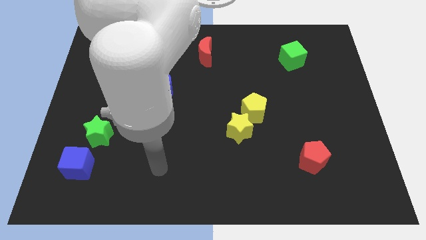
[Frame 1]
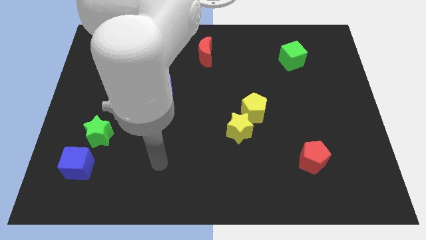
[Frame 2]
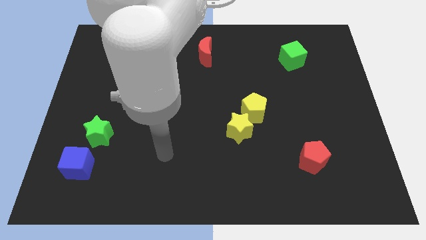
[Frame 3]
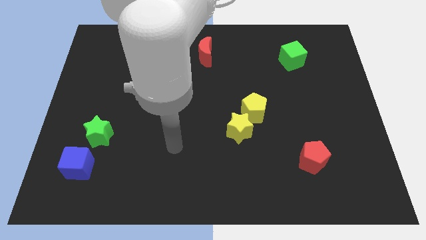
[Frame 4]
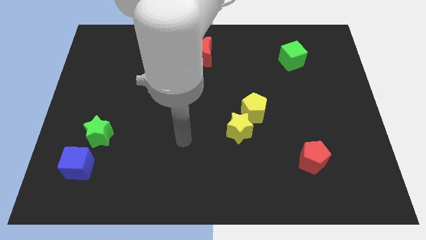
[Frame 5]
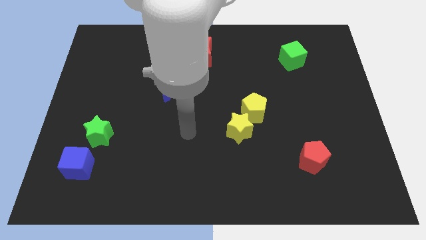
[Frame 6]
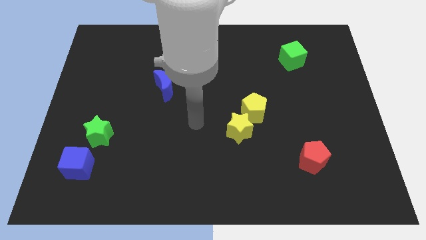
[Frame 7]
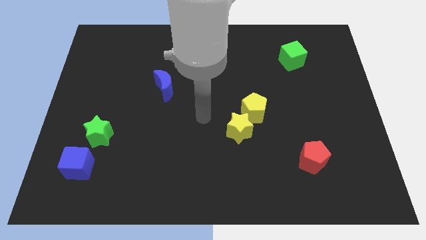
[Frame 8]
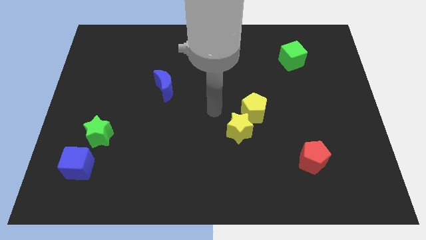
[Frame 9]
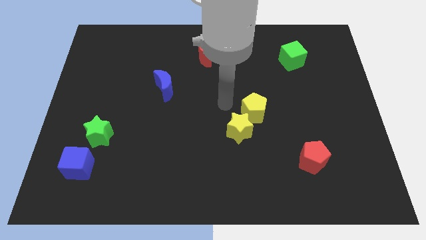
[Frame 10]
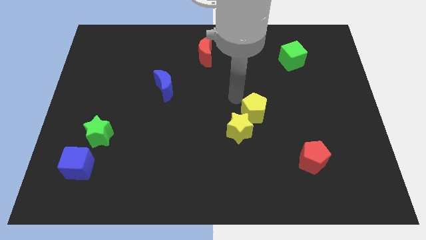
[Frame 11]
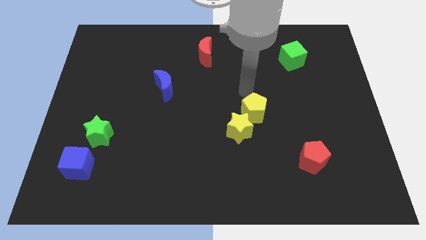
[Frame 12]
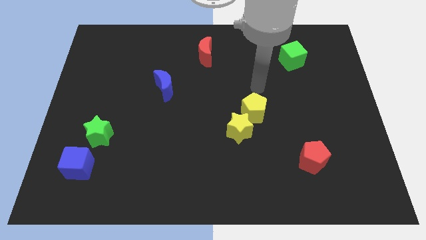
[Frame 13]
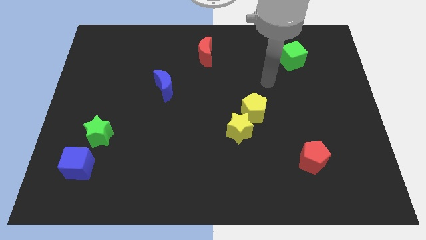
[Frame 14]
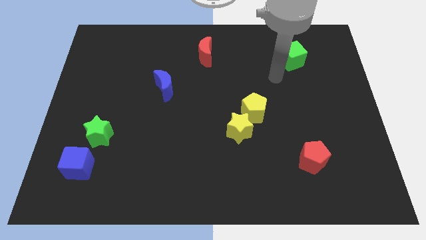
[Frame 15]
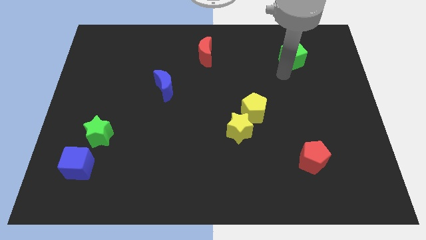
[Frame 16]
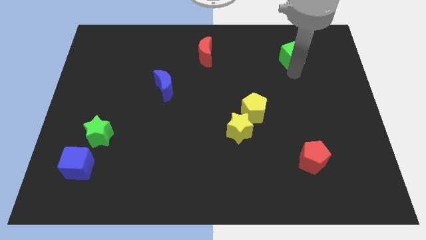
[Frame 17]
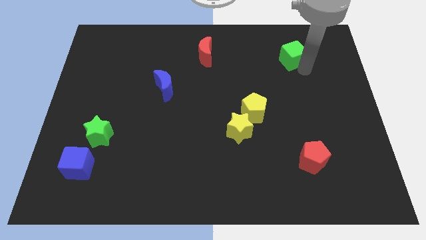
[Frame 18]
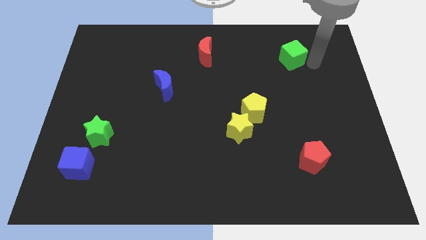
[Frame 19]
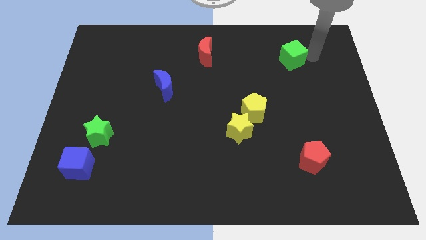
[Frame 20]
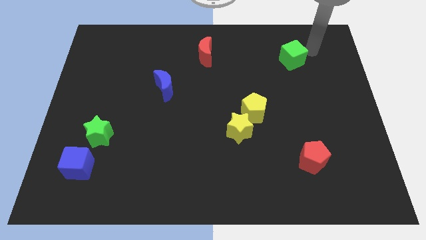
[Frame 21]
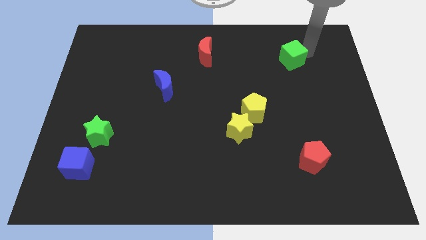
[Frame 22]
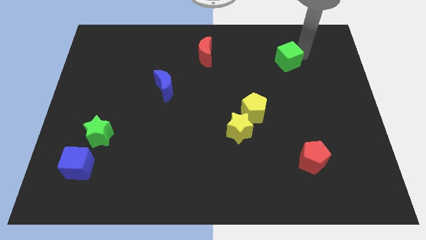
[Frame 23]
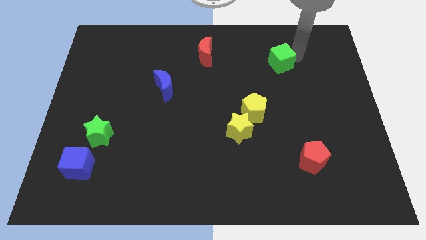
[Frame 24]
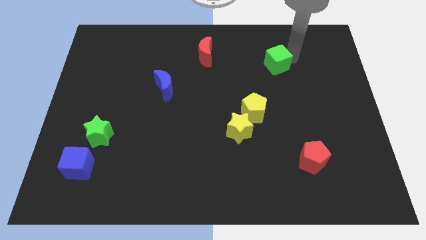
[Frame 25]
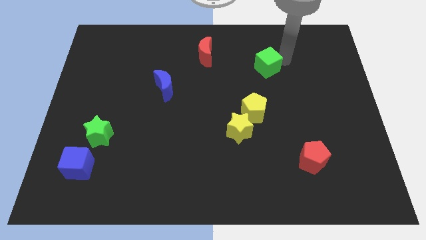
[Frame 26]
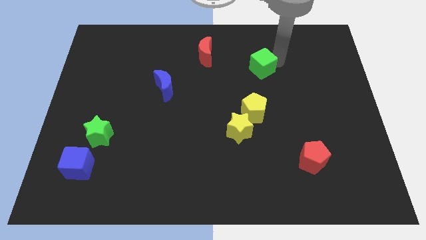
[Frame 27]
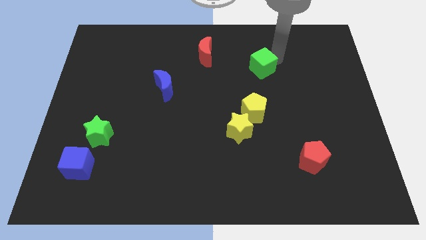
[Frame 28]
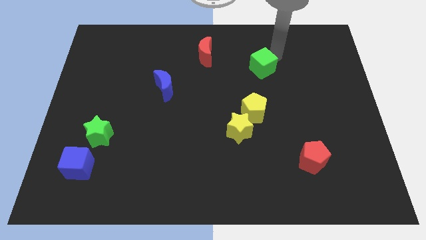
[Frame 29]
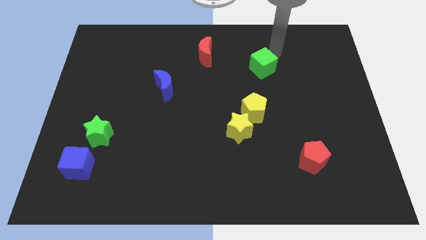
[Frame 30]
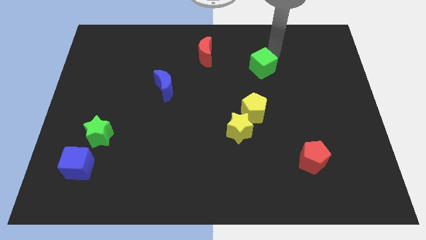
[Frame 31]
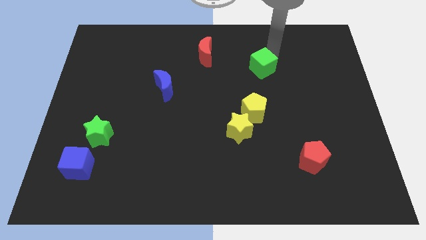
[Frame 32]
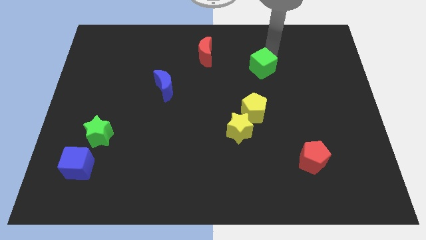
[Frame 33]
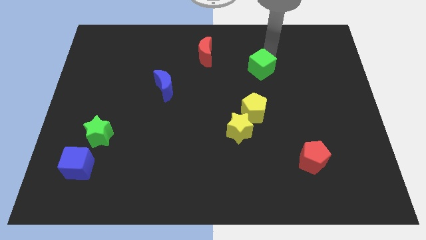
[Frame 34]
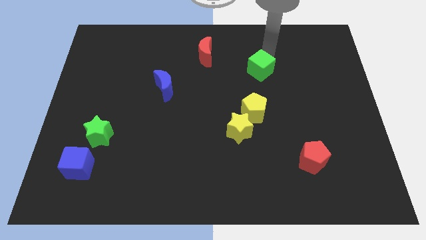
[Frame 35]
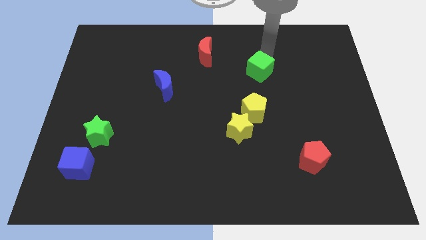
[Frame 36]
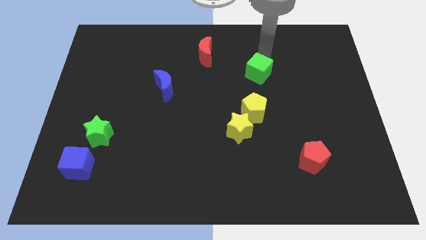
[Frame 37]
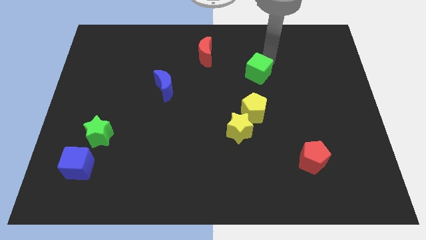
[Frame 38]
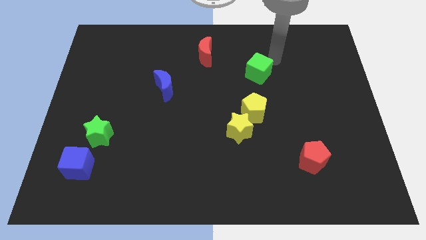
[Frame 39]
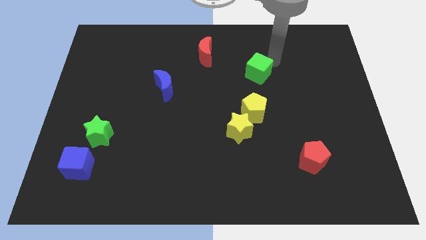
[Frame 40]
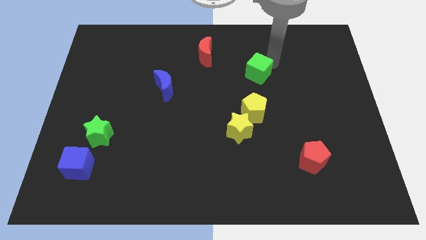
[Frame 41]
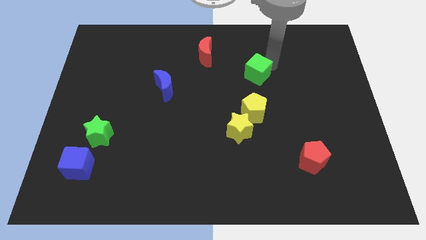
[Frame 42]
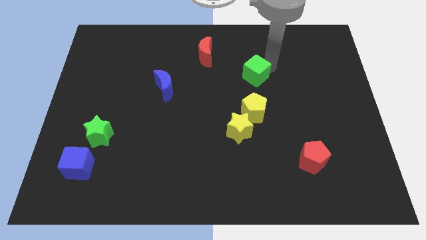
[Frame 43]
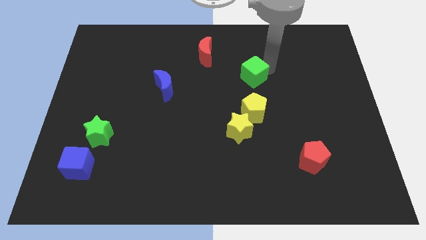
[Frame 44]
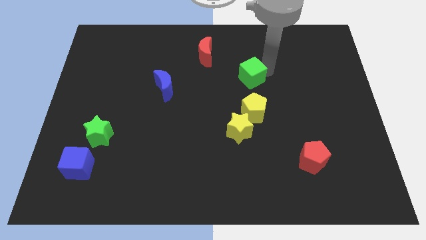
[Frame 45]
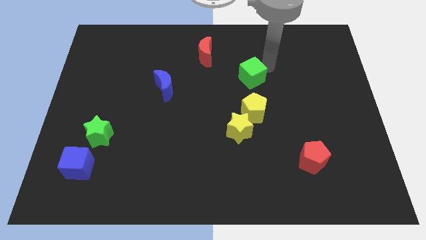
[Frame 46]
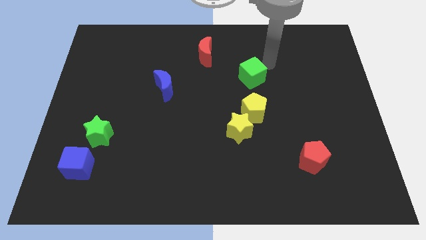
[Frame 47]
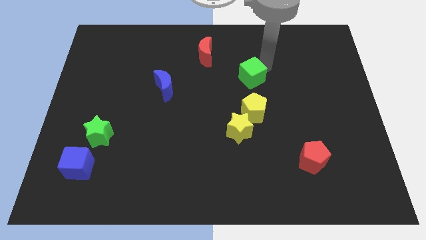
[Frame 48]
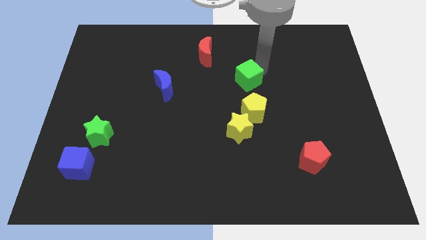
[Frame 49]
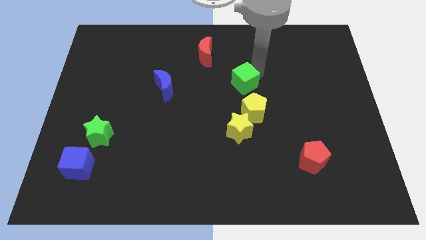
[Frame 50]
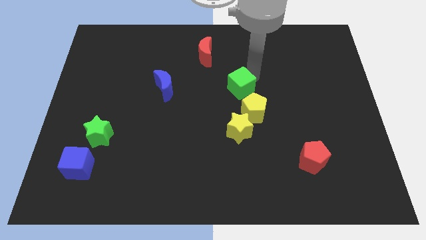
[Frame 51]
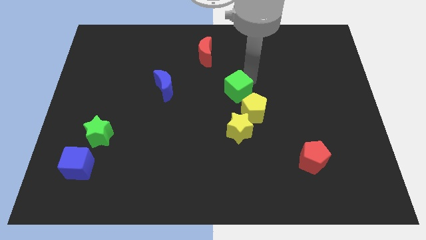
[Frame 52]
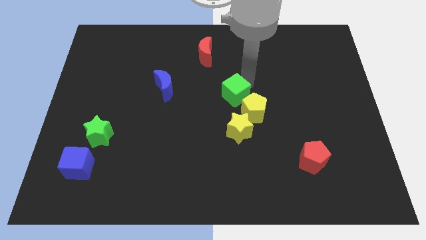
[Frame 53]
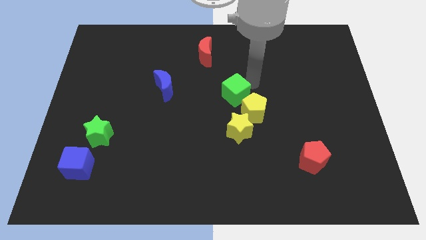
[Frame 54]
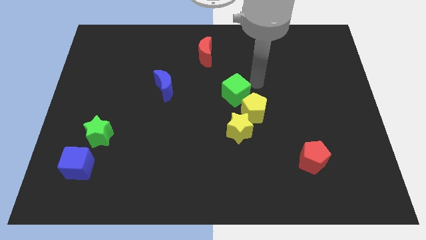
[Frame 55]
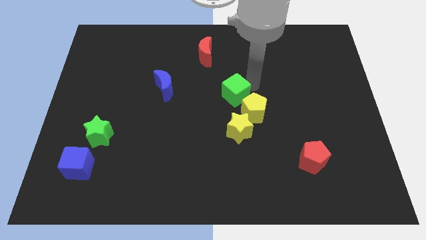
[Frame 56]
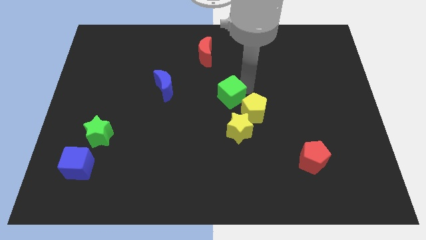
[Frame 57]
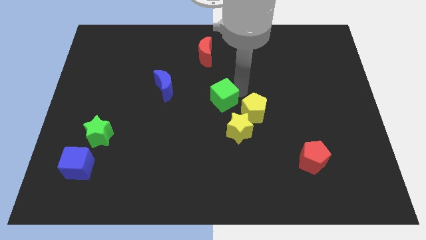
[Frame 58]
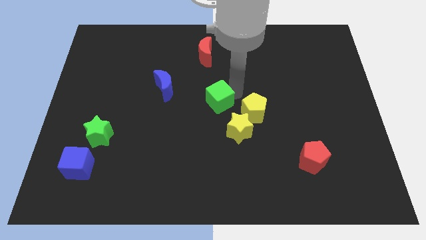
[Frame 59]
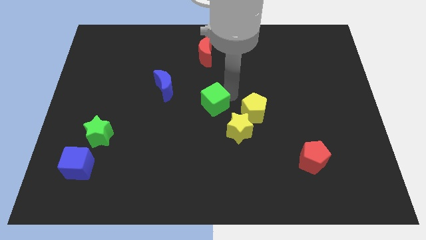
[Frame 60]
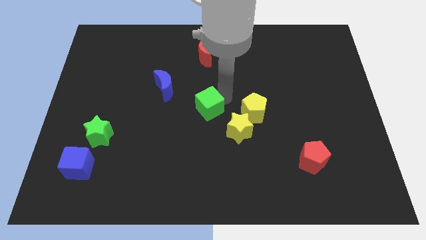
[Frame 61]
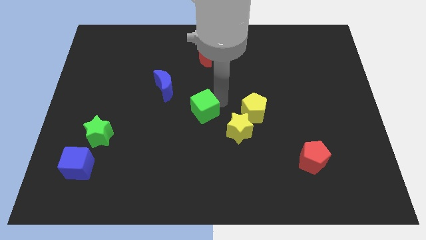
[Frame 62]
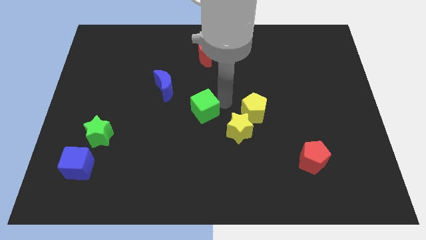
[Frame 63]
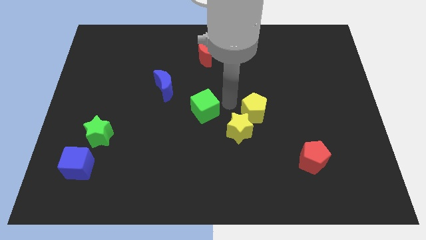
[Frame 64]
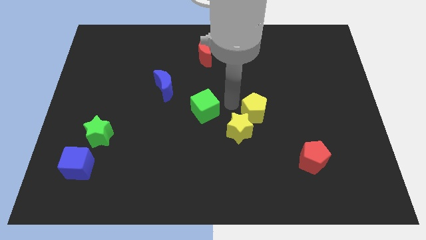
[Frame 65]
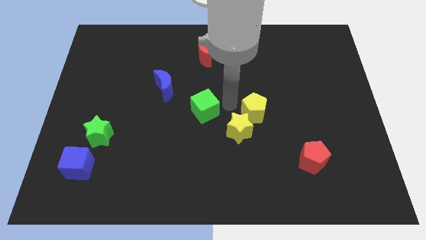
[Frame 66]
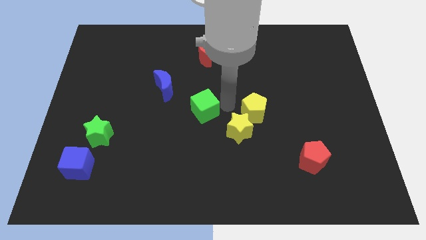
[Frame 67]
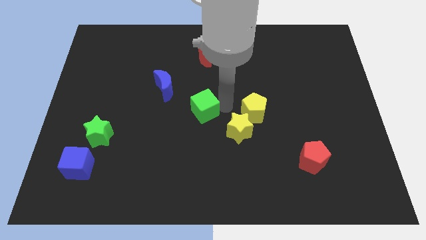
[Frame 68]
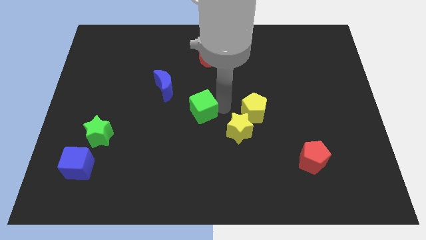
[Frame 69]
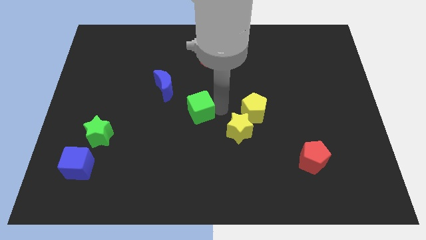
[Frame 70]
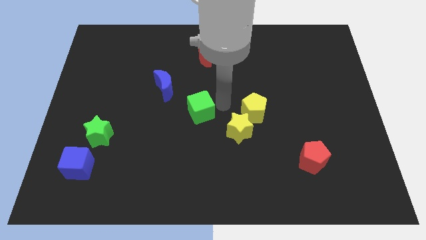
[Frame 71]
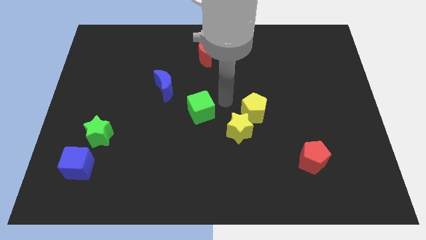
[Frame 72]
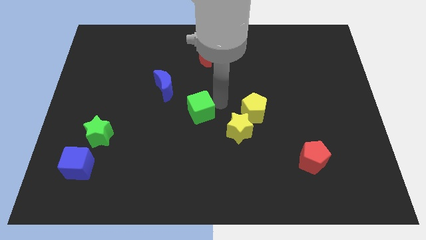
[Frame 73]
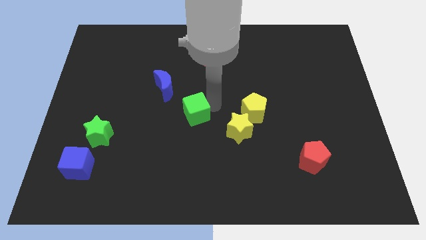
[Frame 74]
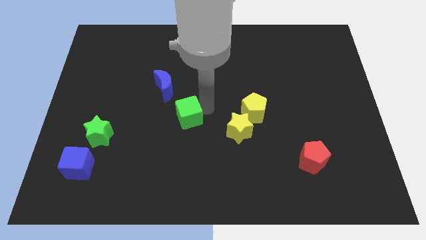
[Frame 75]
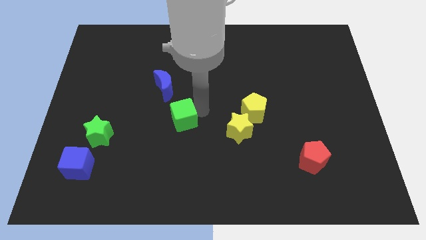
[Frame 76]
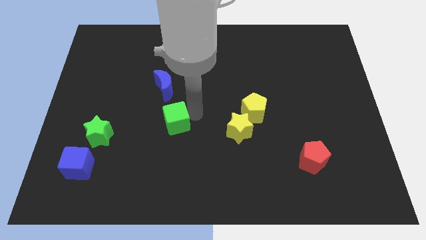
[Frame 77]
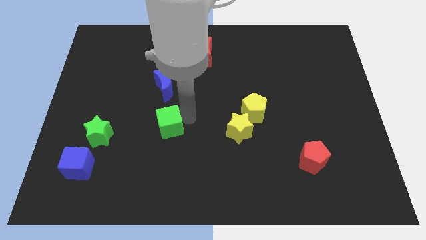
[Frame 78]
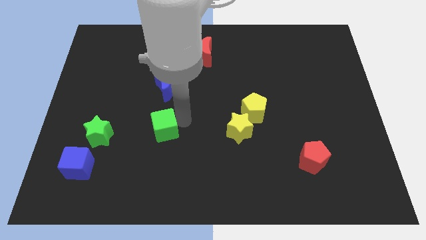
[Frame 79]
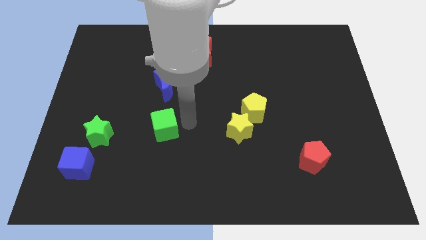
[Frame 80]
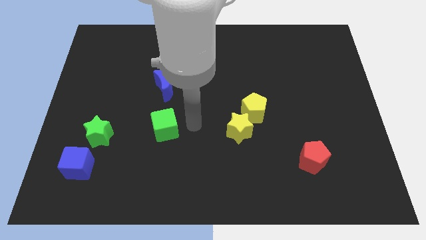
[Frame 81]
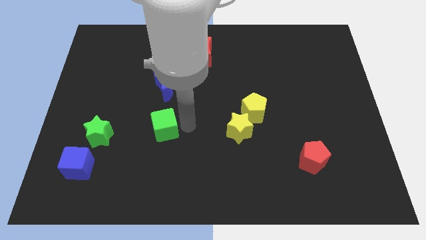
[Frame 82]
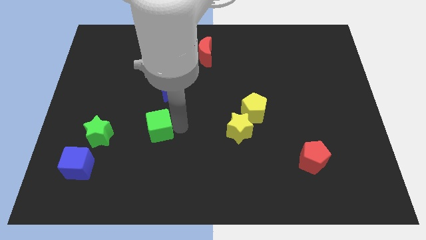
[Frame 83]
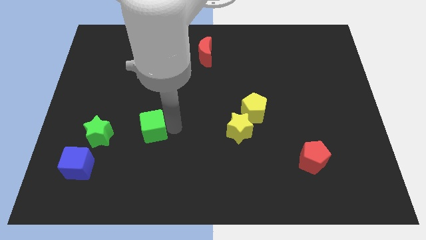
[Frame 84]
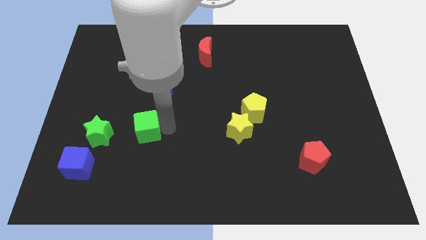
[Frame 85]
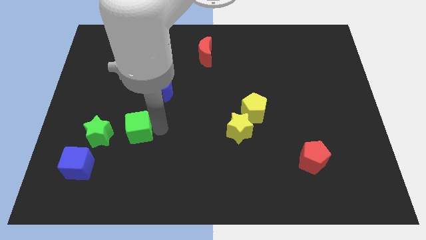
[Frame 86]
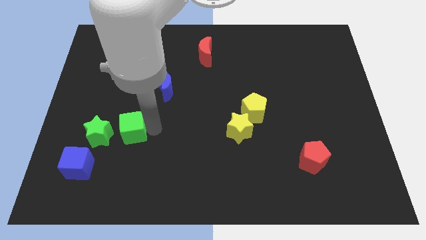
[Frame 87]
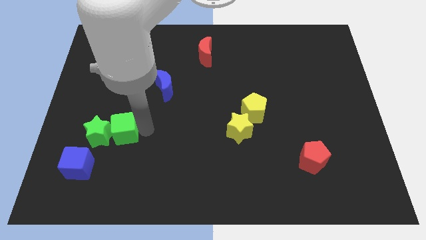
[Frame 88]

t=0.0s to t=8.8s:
put the green cube close to the green star
